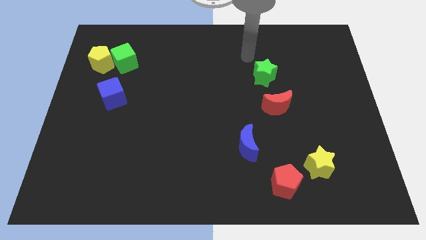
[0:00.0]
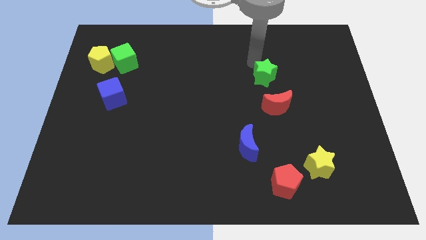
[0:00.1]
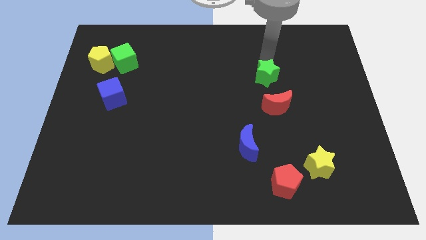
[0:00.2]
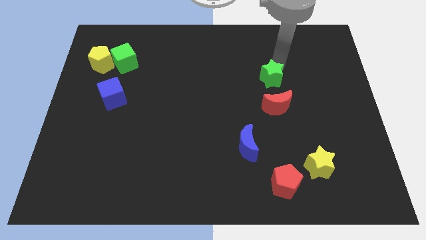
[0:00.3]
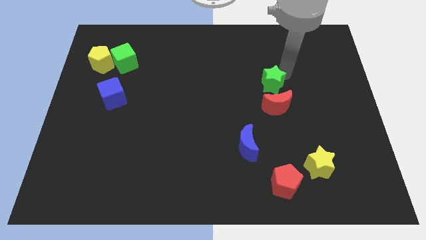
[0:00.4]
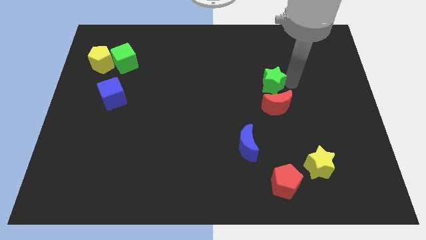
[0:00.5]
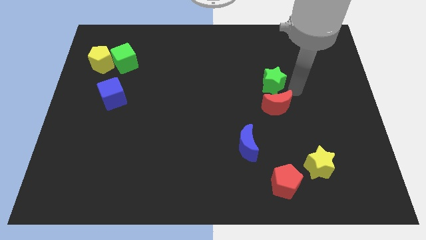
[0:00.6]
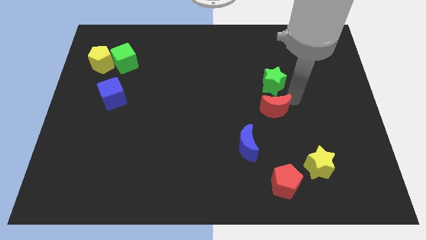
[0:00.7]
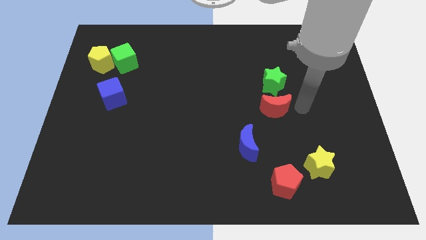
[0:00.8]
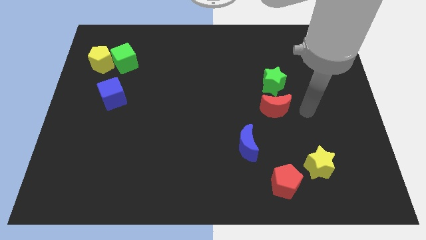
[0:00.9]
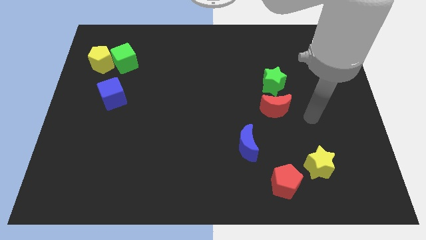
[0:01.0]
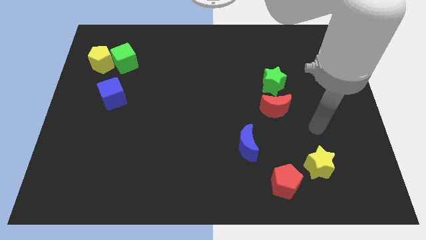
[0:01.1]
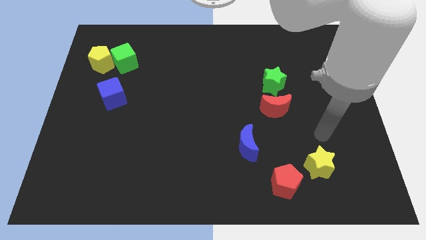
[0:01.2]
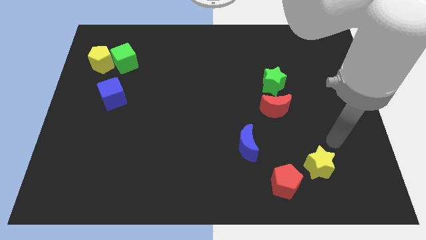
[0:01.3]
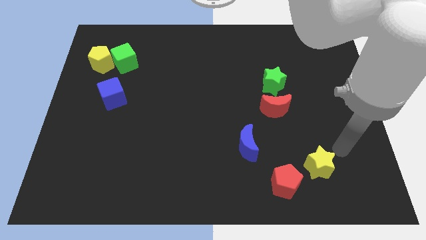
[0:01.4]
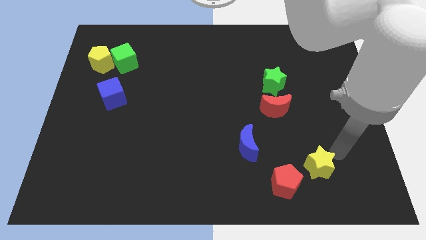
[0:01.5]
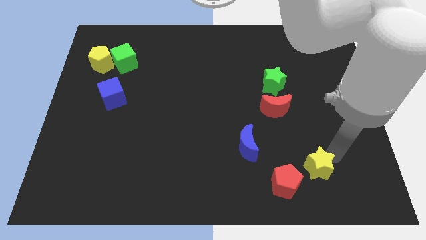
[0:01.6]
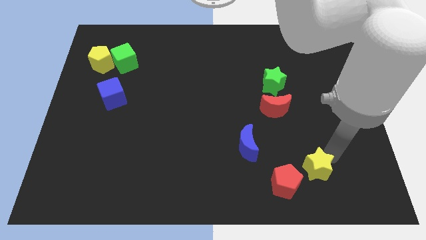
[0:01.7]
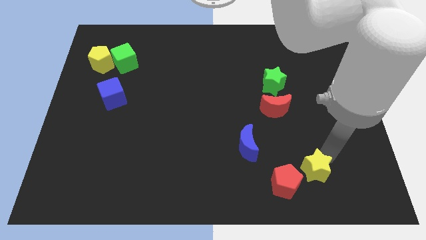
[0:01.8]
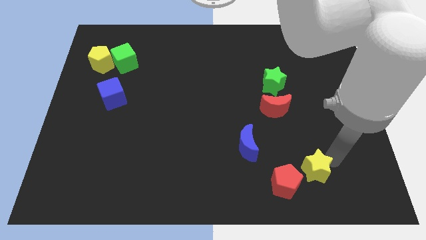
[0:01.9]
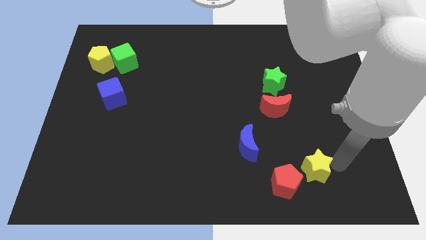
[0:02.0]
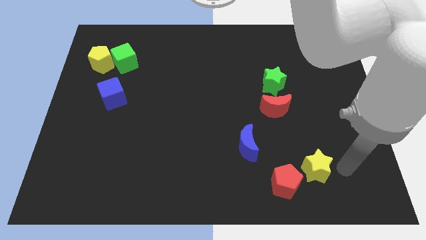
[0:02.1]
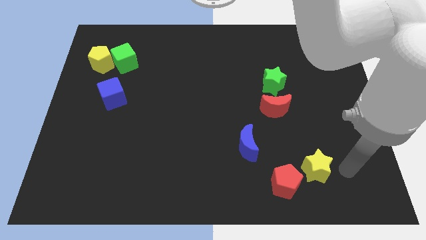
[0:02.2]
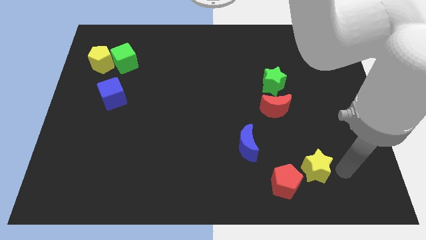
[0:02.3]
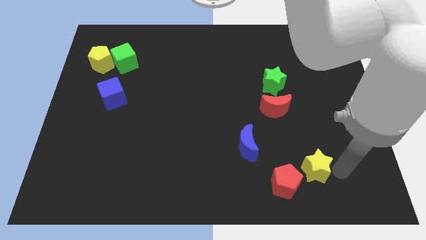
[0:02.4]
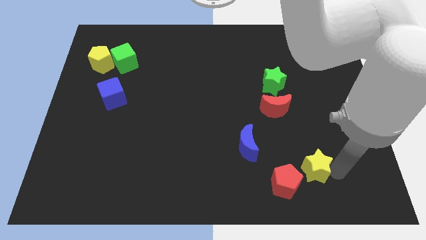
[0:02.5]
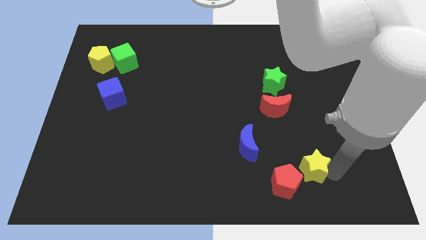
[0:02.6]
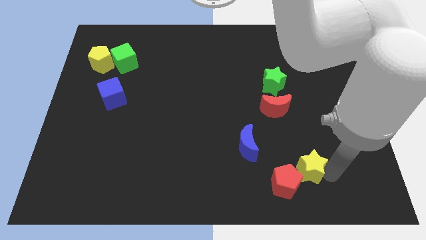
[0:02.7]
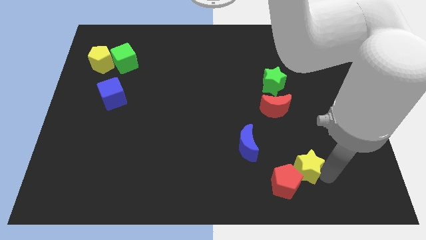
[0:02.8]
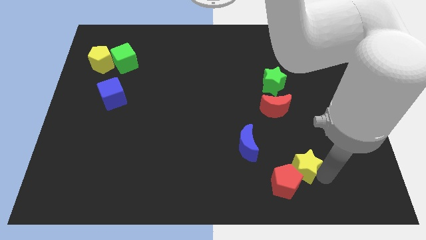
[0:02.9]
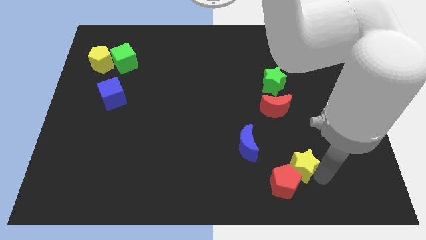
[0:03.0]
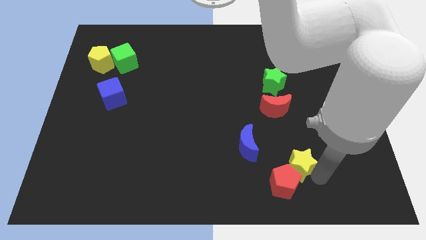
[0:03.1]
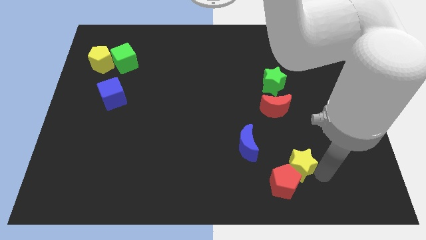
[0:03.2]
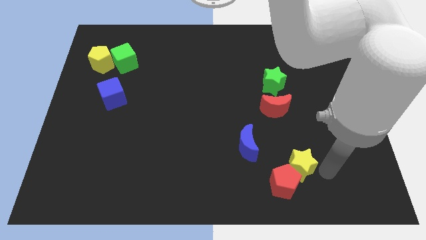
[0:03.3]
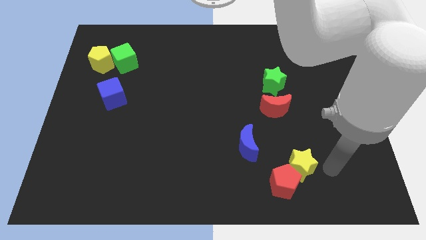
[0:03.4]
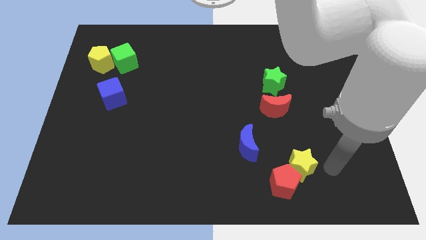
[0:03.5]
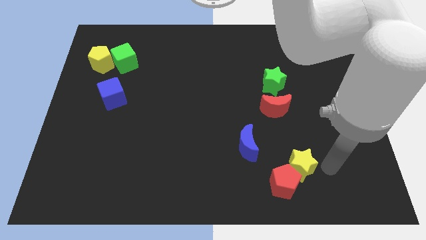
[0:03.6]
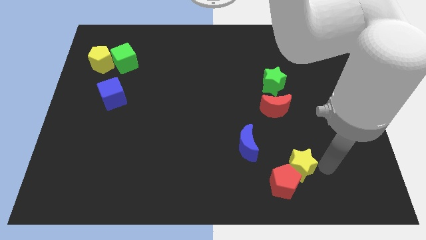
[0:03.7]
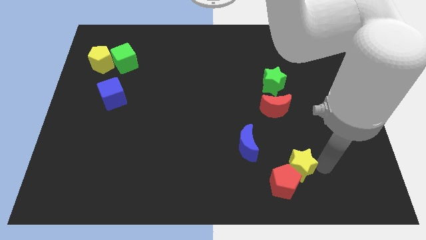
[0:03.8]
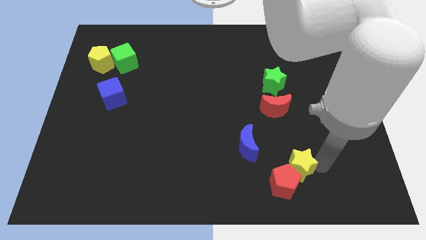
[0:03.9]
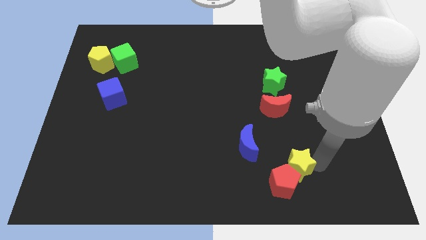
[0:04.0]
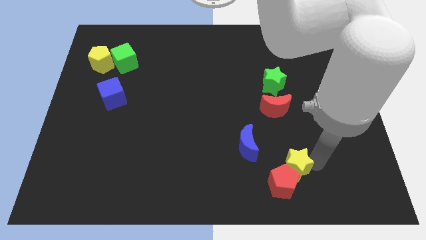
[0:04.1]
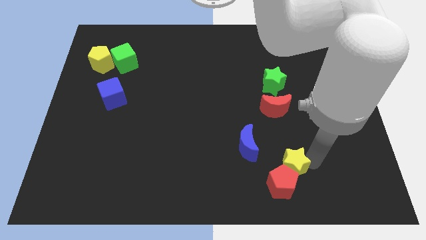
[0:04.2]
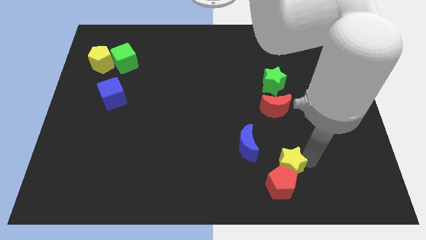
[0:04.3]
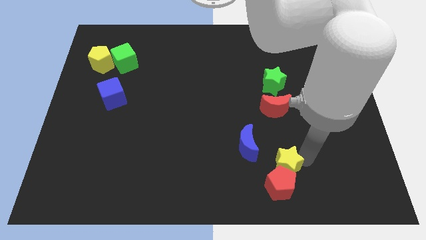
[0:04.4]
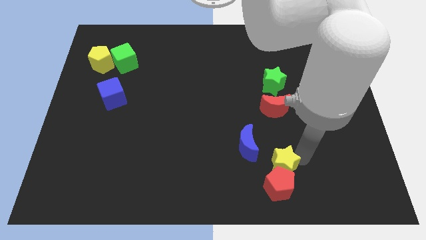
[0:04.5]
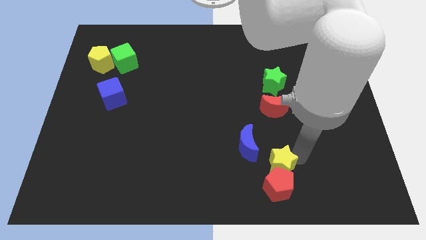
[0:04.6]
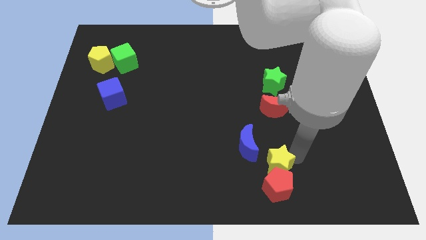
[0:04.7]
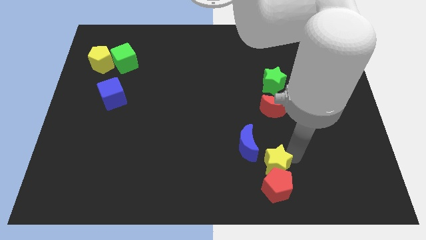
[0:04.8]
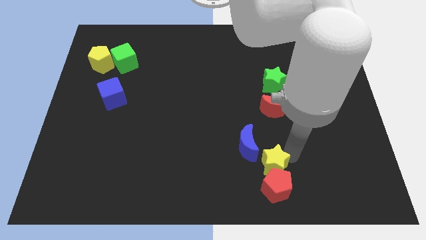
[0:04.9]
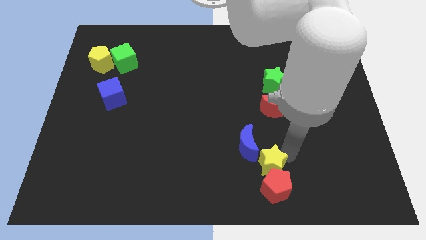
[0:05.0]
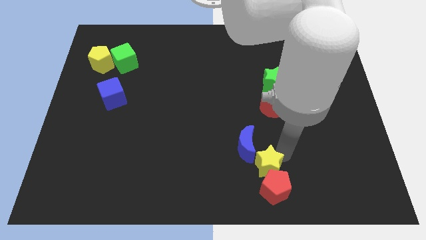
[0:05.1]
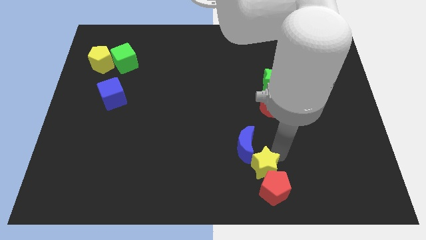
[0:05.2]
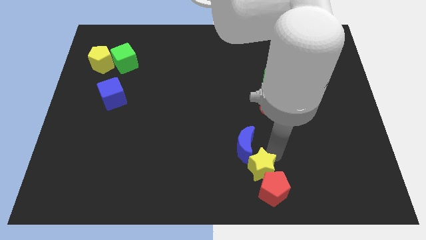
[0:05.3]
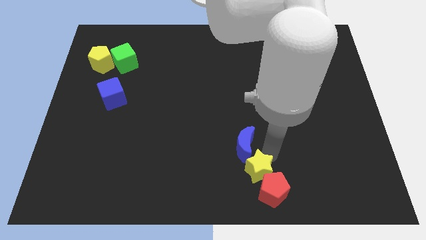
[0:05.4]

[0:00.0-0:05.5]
push the yellow star to the bottom
